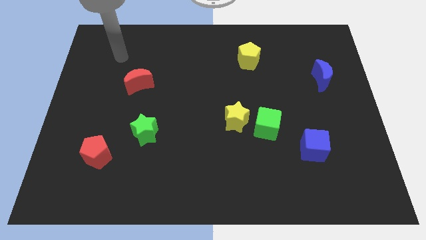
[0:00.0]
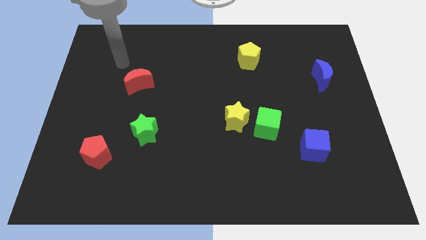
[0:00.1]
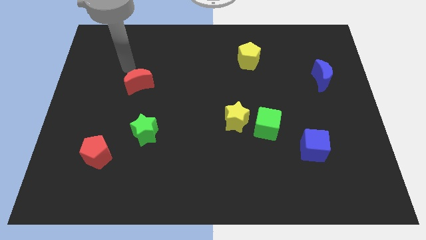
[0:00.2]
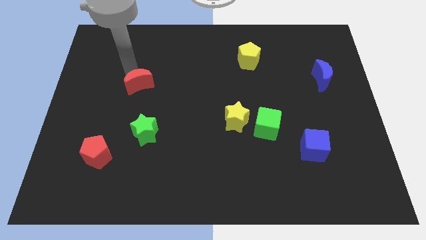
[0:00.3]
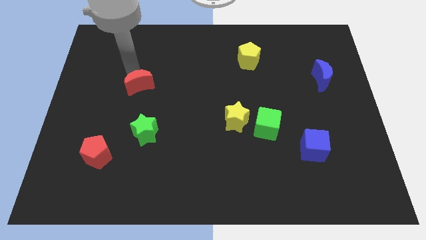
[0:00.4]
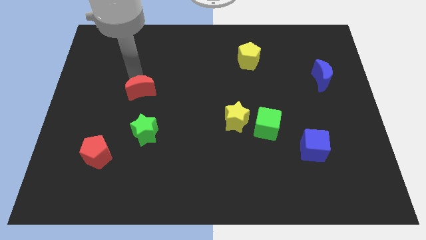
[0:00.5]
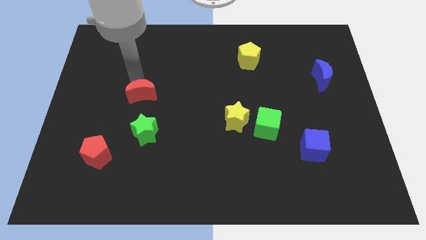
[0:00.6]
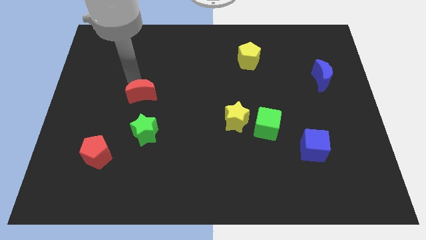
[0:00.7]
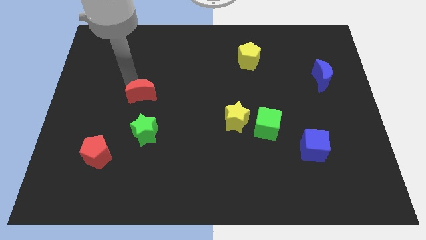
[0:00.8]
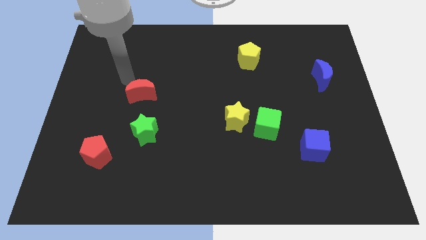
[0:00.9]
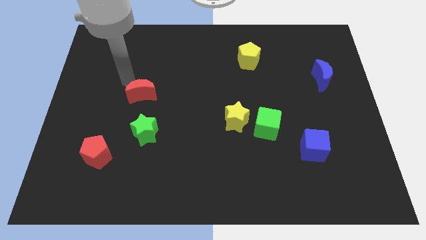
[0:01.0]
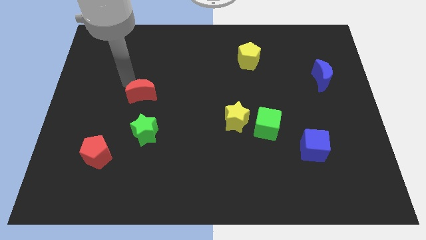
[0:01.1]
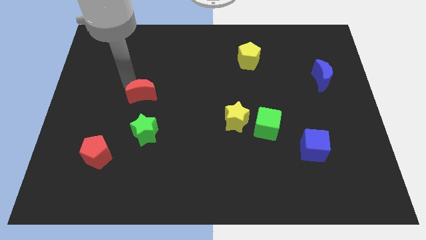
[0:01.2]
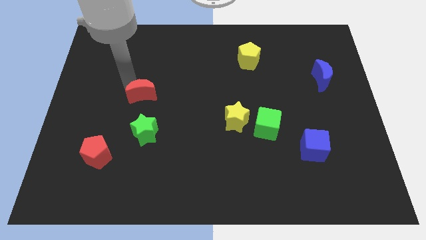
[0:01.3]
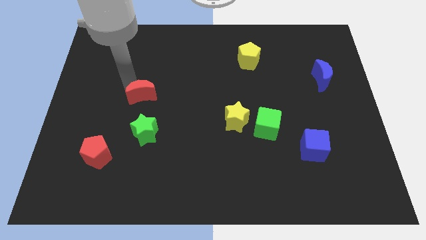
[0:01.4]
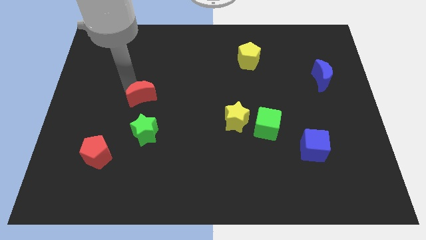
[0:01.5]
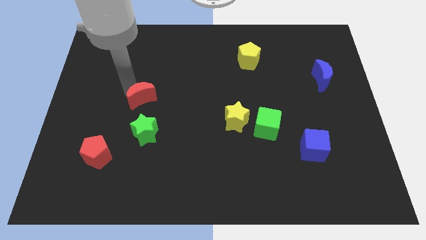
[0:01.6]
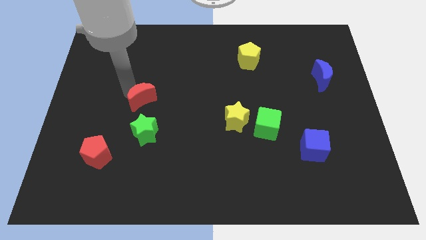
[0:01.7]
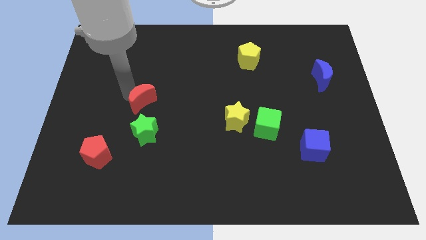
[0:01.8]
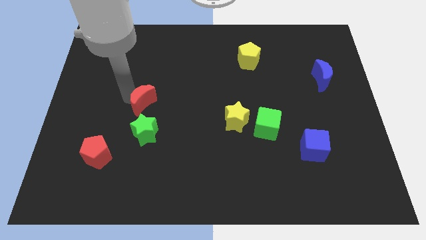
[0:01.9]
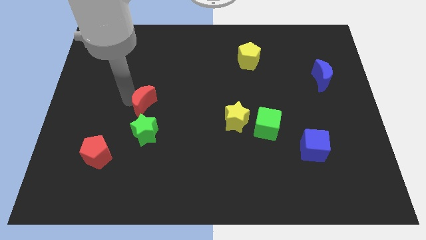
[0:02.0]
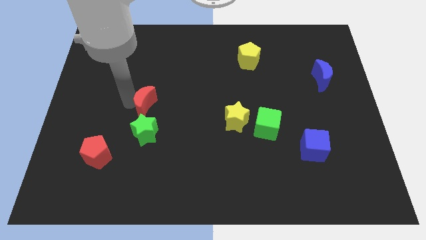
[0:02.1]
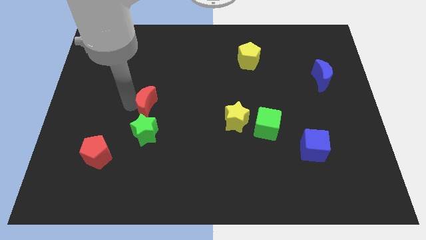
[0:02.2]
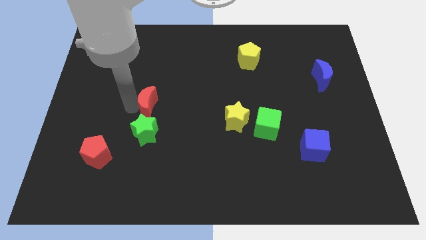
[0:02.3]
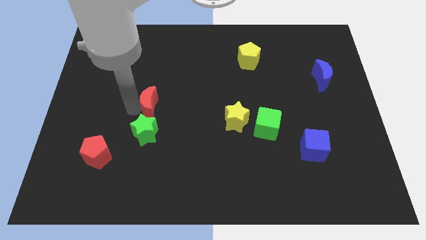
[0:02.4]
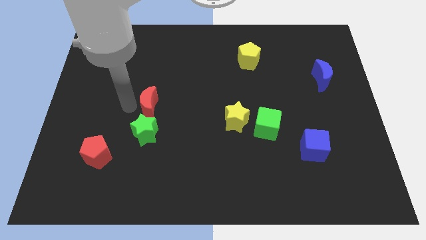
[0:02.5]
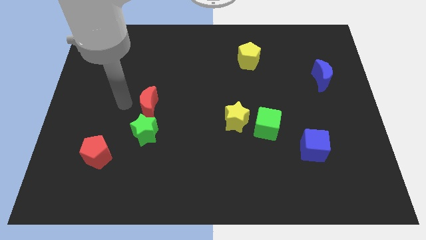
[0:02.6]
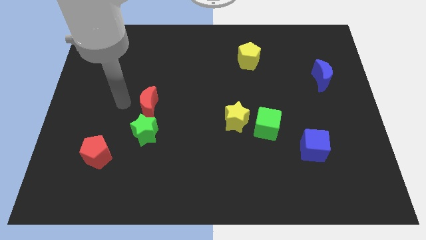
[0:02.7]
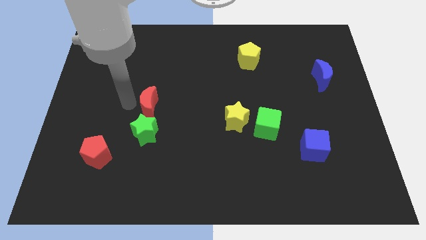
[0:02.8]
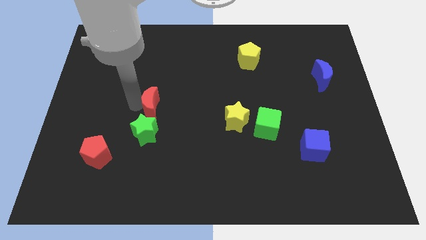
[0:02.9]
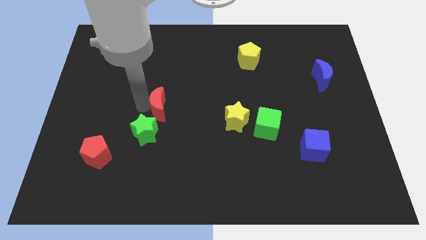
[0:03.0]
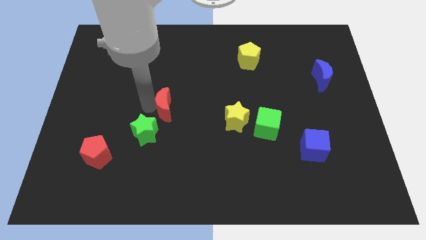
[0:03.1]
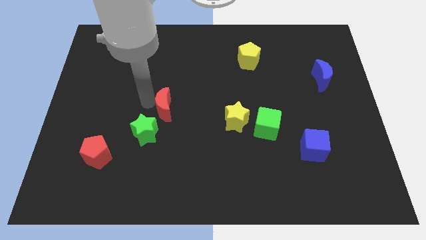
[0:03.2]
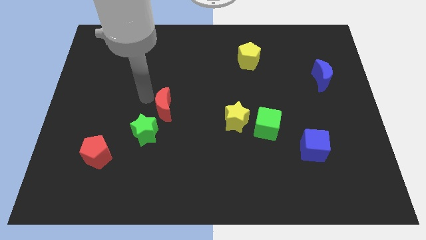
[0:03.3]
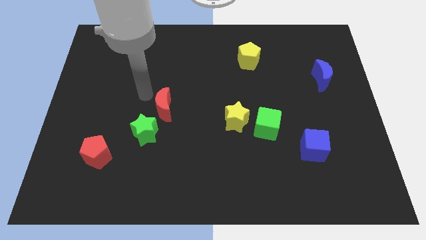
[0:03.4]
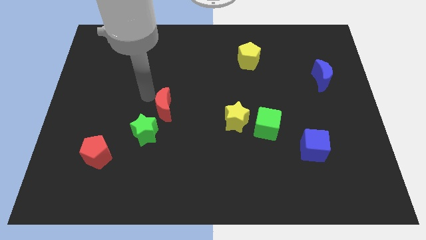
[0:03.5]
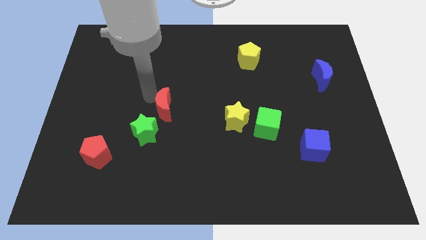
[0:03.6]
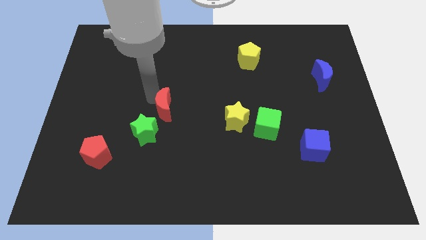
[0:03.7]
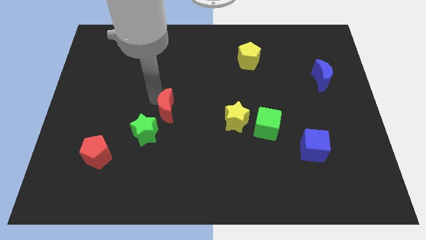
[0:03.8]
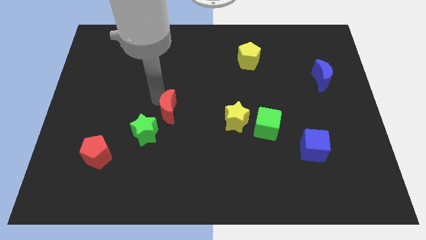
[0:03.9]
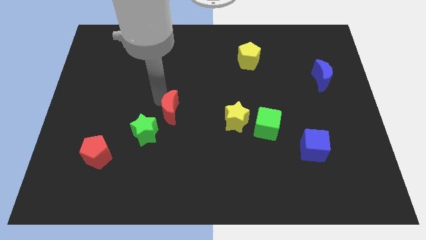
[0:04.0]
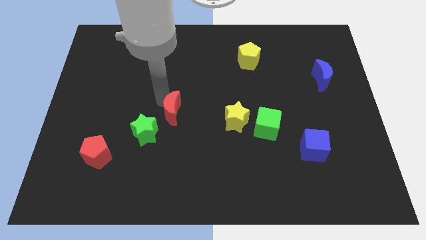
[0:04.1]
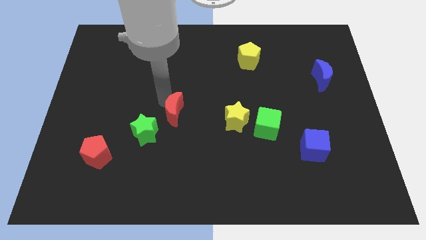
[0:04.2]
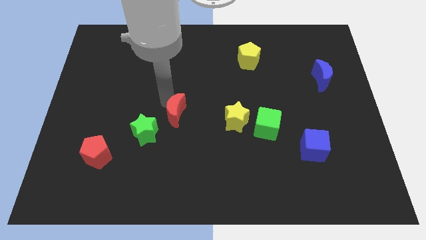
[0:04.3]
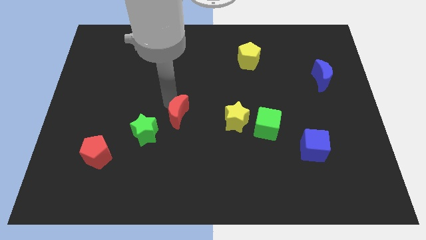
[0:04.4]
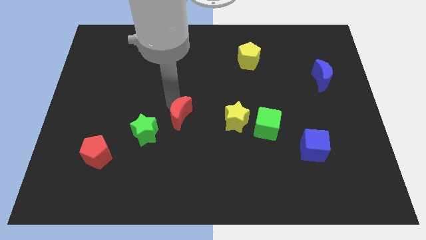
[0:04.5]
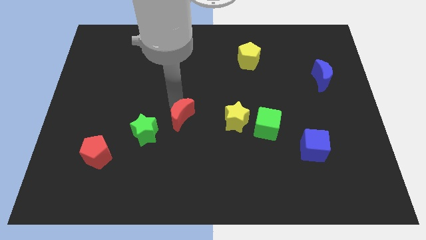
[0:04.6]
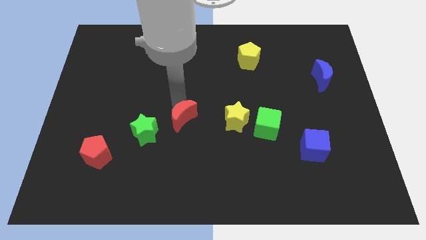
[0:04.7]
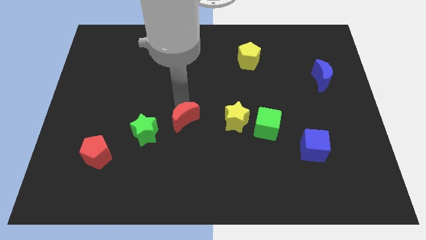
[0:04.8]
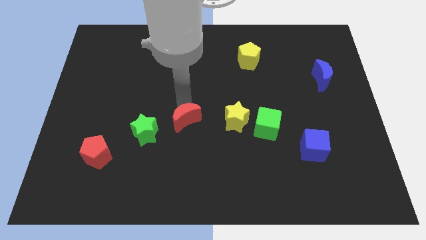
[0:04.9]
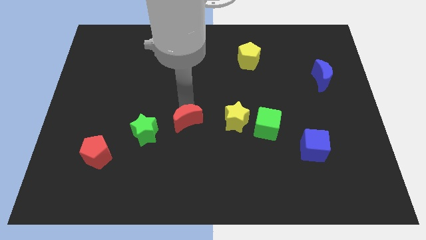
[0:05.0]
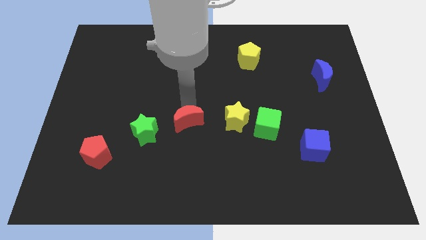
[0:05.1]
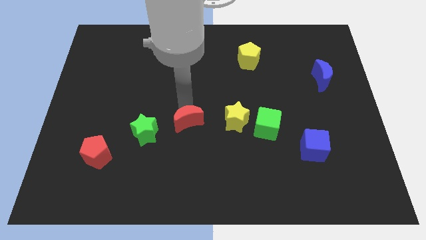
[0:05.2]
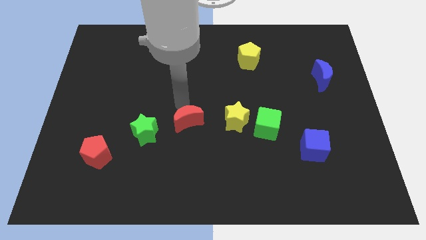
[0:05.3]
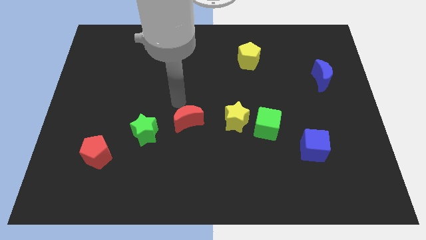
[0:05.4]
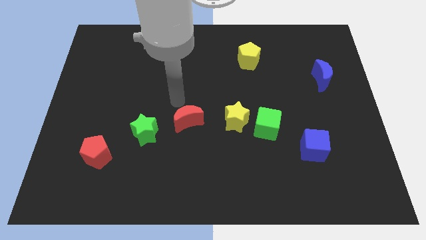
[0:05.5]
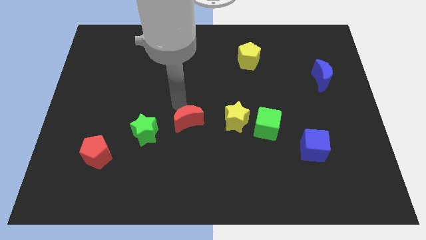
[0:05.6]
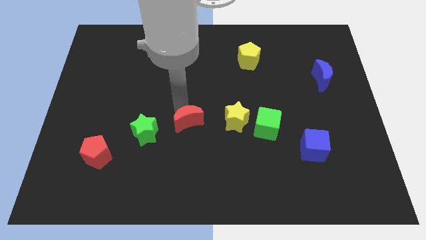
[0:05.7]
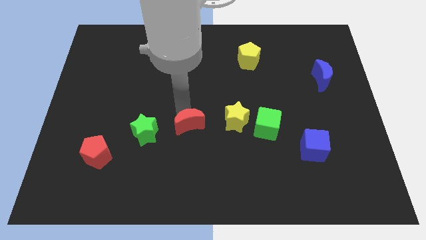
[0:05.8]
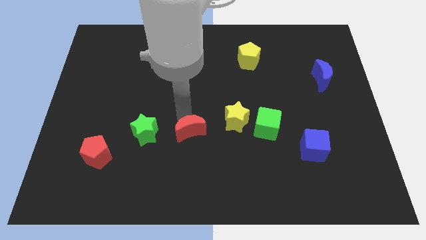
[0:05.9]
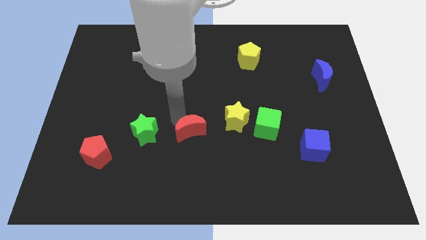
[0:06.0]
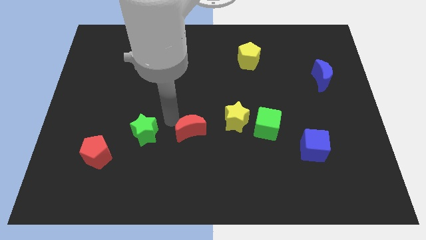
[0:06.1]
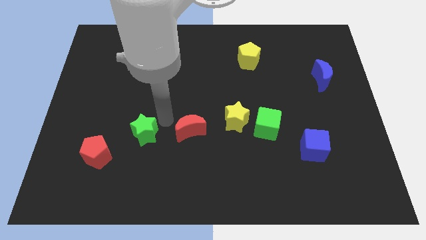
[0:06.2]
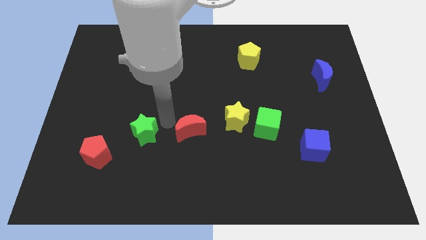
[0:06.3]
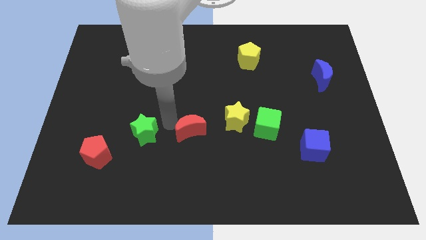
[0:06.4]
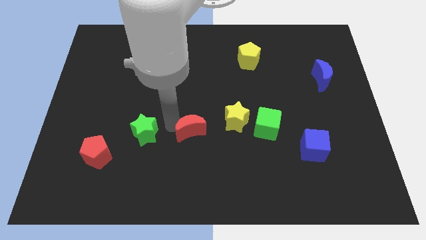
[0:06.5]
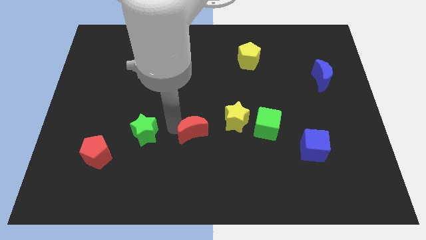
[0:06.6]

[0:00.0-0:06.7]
push the red moon to the bottom left of the yellow star
